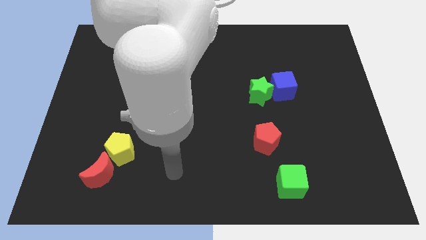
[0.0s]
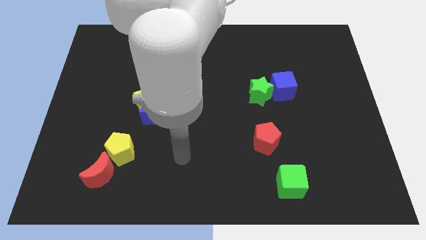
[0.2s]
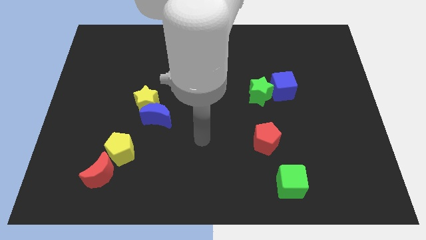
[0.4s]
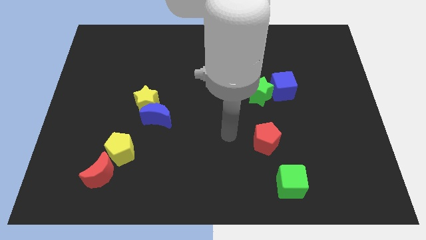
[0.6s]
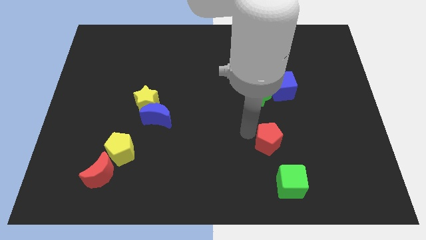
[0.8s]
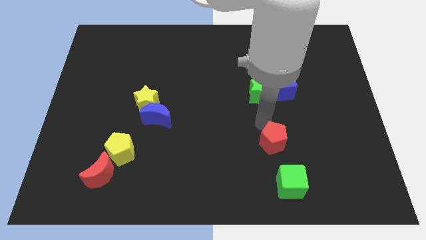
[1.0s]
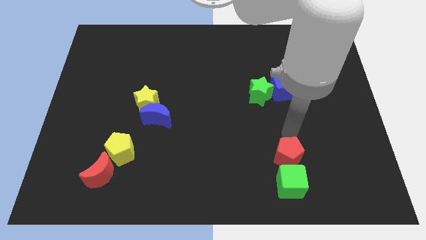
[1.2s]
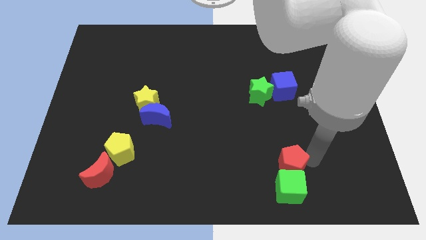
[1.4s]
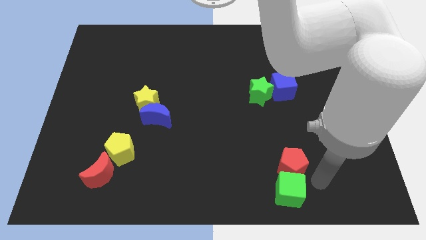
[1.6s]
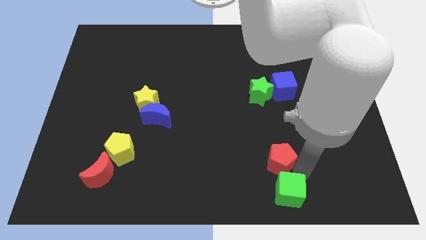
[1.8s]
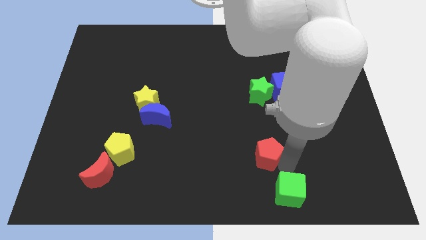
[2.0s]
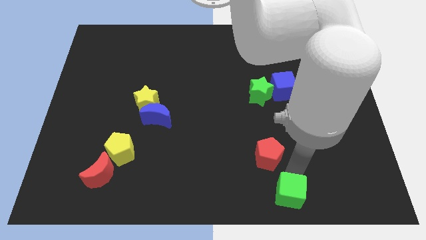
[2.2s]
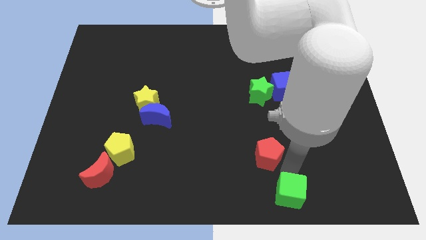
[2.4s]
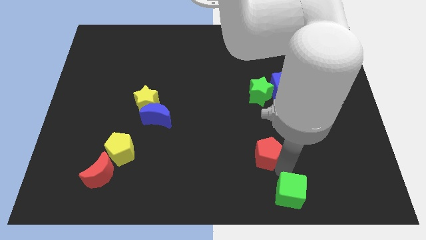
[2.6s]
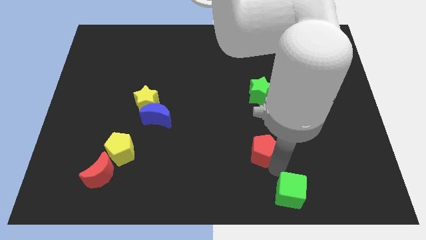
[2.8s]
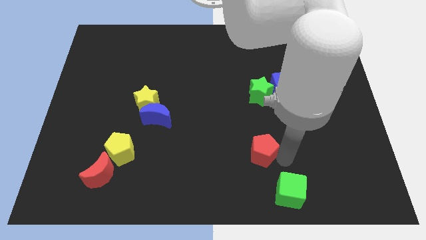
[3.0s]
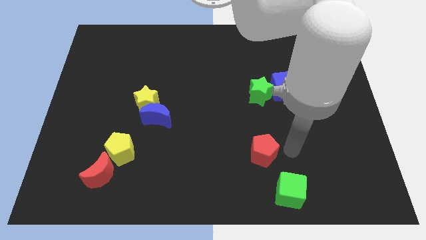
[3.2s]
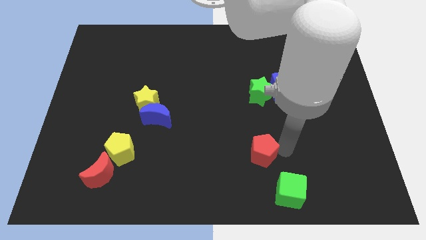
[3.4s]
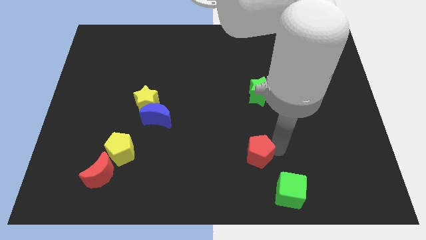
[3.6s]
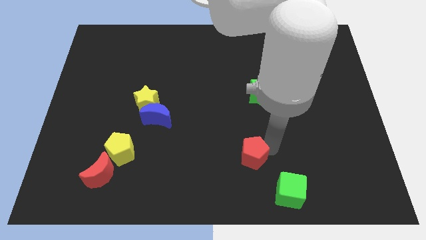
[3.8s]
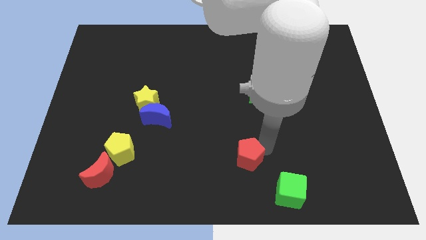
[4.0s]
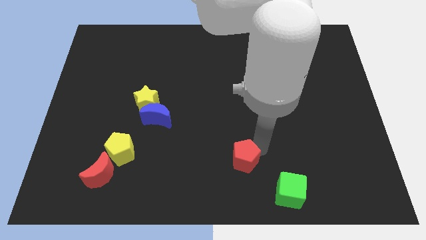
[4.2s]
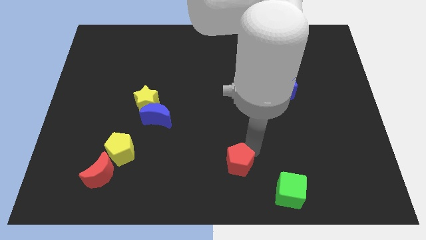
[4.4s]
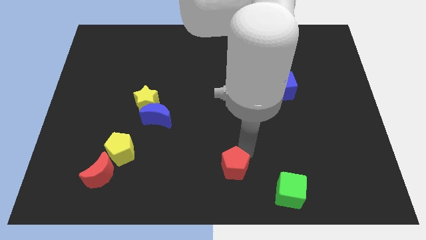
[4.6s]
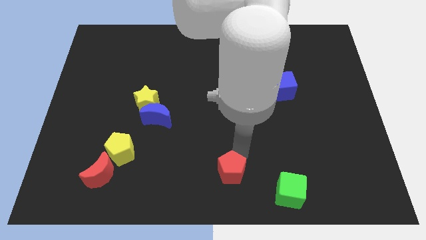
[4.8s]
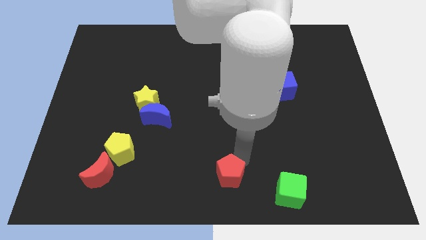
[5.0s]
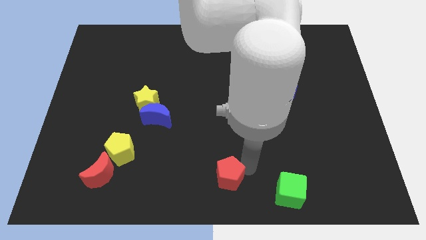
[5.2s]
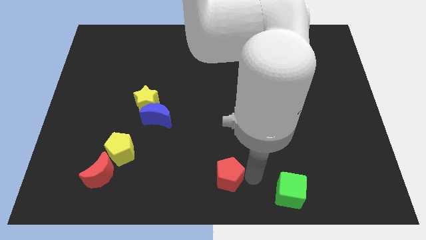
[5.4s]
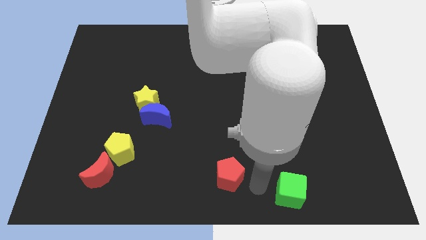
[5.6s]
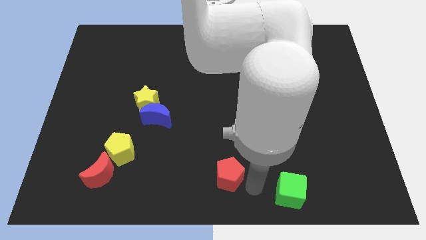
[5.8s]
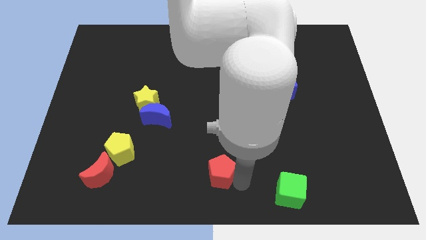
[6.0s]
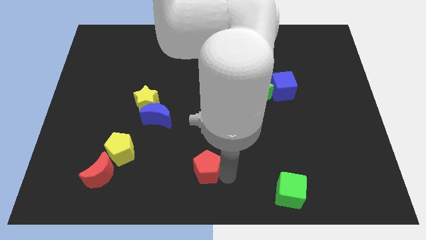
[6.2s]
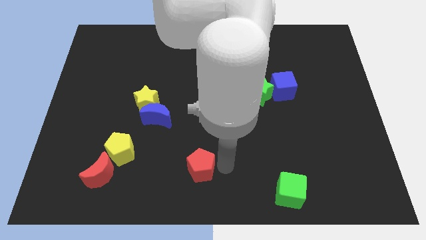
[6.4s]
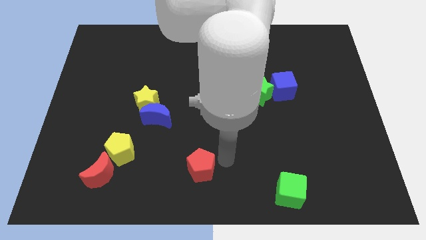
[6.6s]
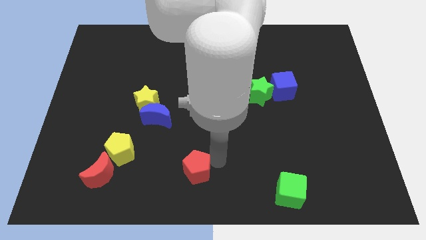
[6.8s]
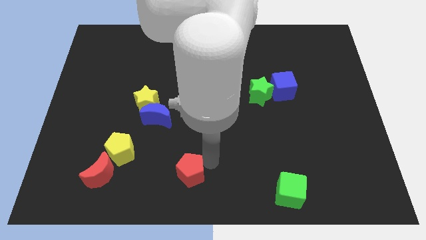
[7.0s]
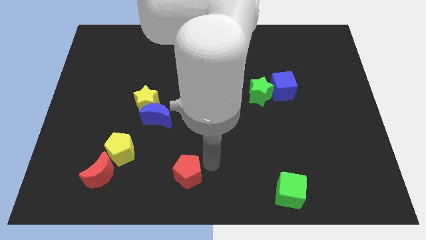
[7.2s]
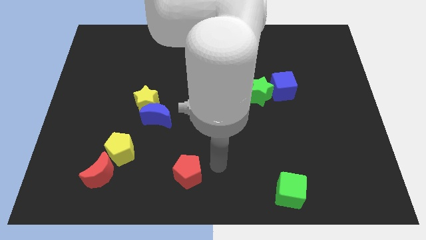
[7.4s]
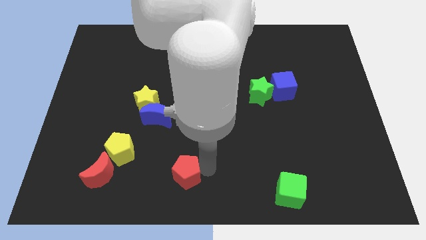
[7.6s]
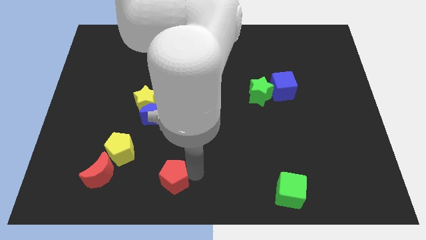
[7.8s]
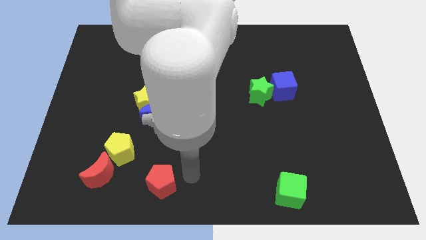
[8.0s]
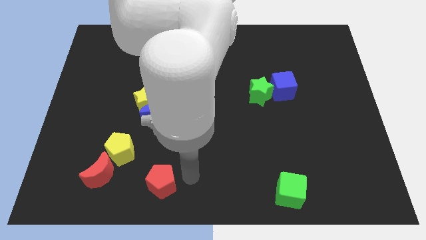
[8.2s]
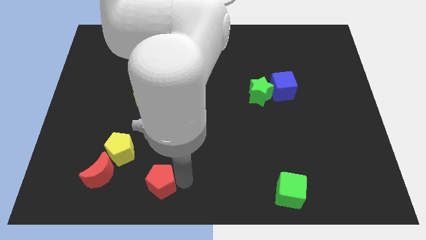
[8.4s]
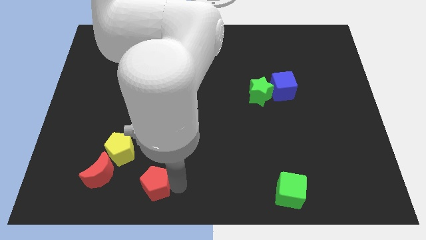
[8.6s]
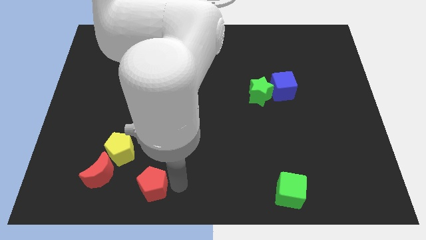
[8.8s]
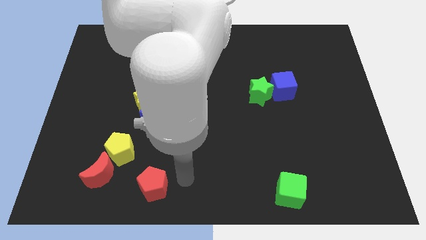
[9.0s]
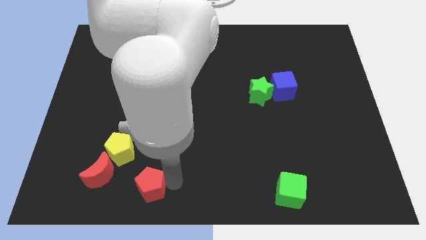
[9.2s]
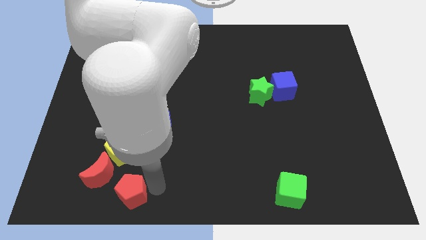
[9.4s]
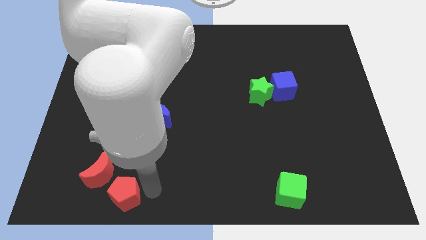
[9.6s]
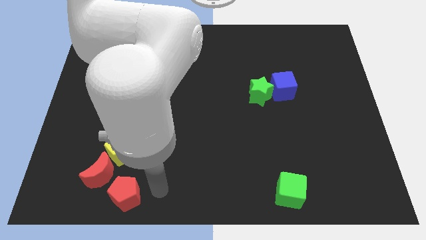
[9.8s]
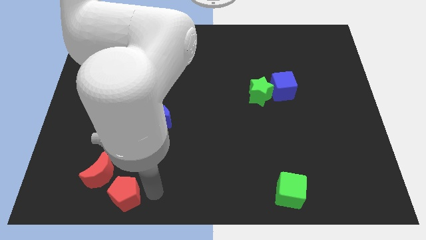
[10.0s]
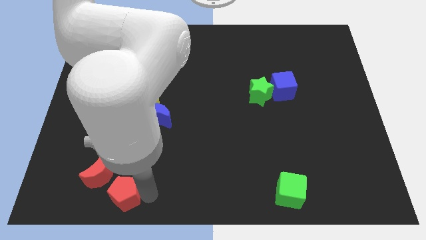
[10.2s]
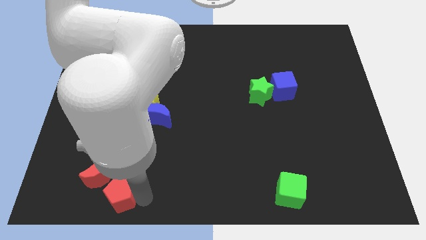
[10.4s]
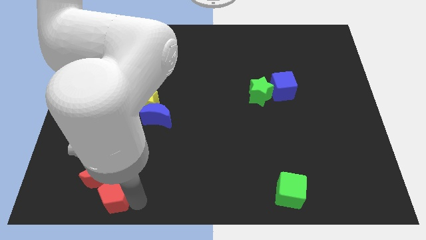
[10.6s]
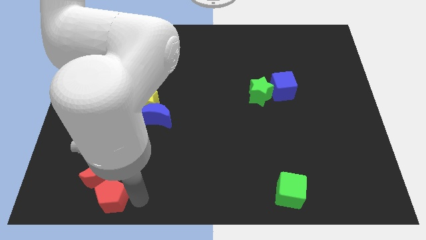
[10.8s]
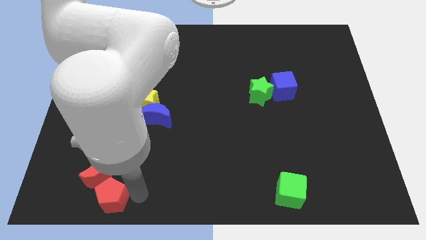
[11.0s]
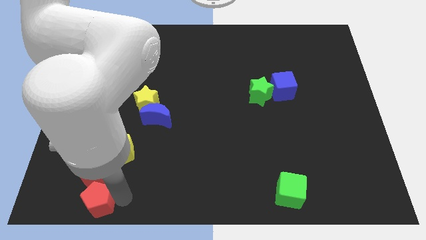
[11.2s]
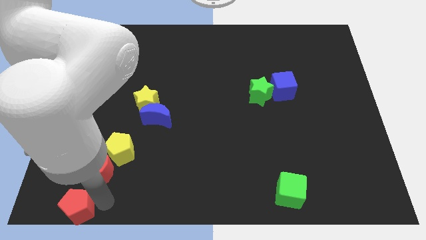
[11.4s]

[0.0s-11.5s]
push the red pentagon to the lower left corner

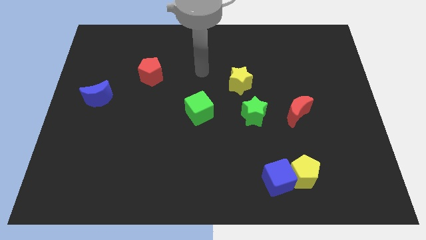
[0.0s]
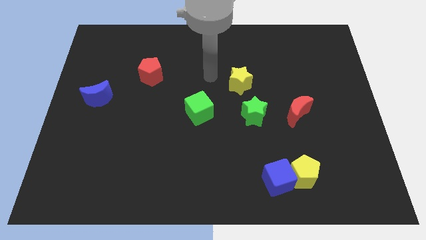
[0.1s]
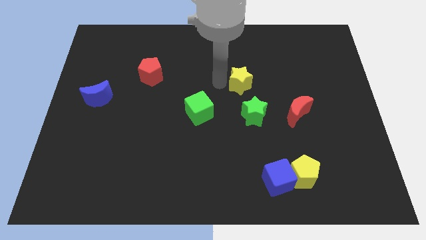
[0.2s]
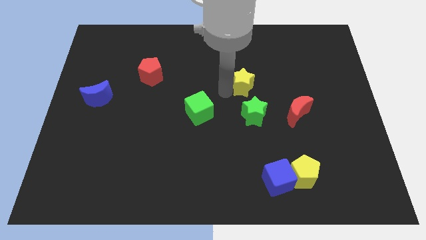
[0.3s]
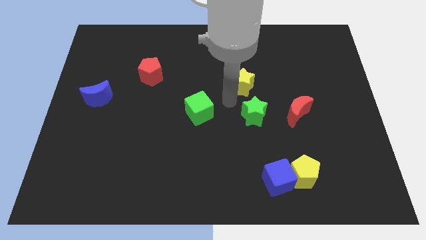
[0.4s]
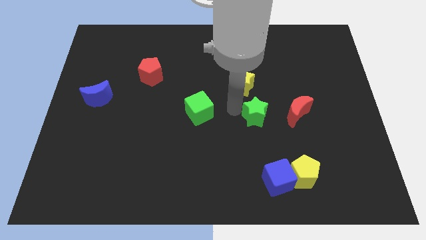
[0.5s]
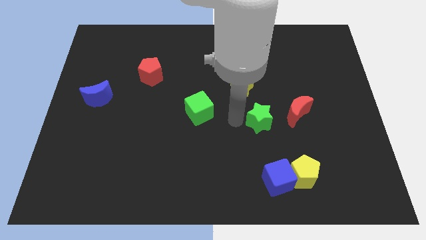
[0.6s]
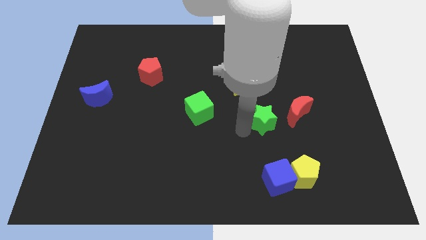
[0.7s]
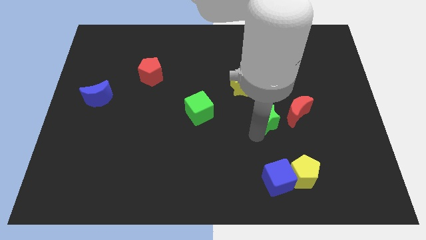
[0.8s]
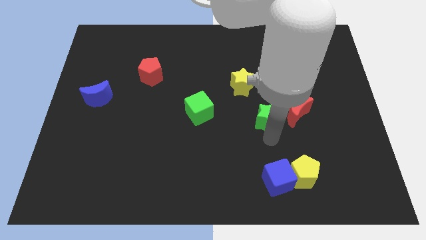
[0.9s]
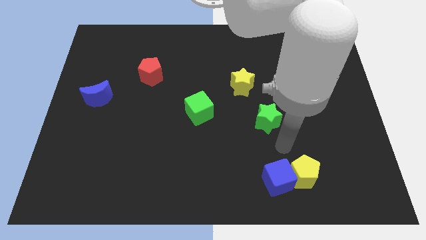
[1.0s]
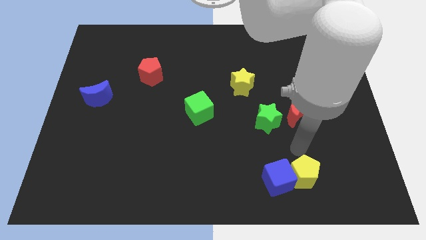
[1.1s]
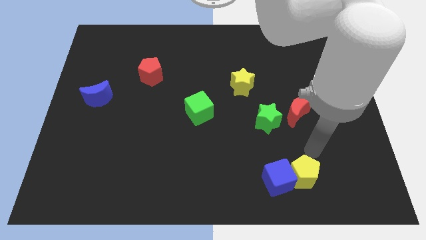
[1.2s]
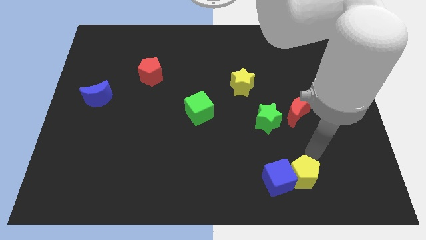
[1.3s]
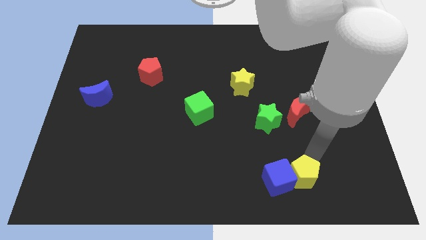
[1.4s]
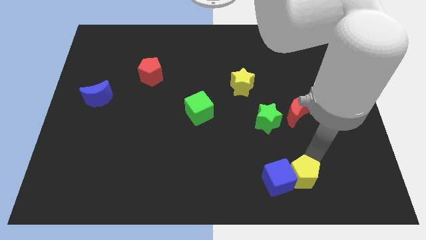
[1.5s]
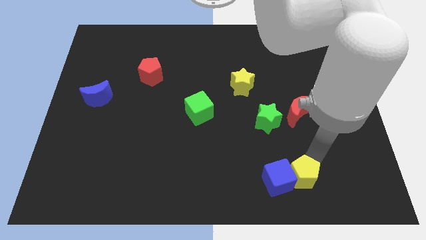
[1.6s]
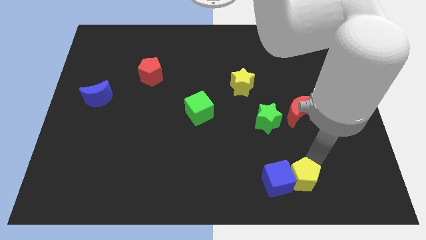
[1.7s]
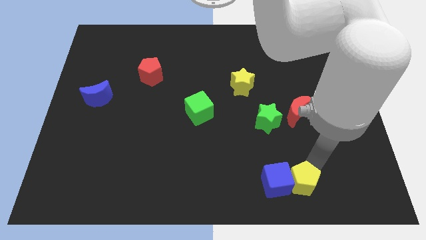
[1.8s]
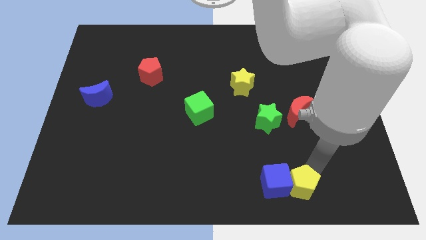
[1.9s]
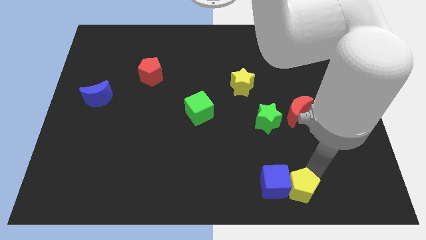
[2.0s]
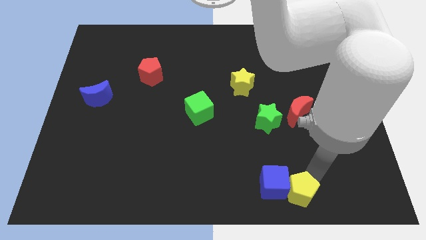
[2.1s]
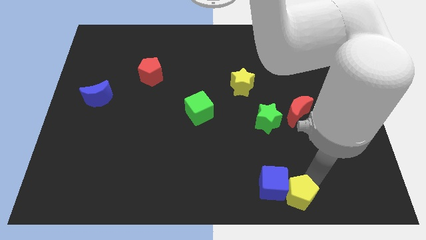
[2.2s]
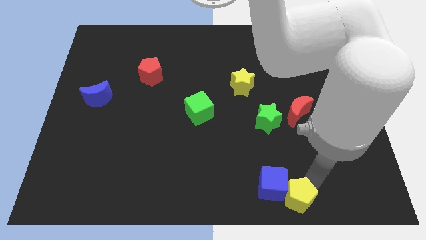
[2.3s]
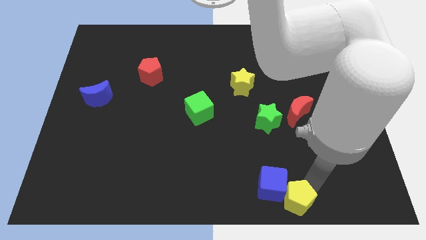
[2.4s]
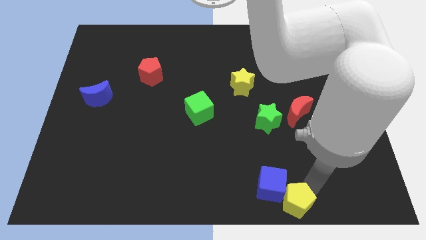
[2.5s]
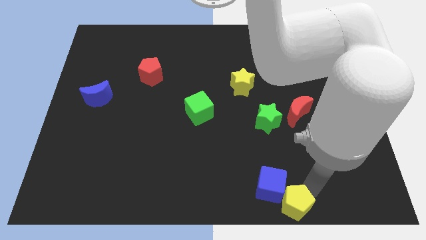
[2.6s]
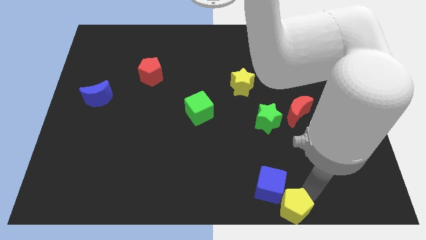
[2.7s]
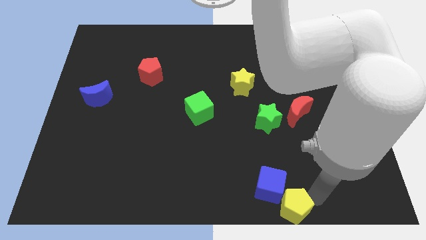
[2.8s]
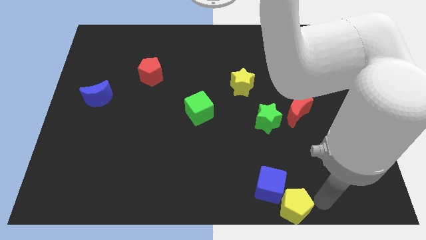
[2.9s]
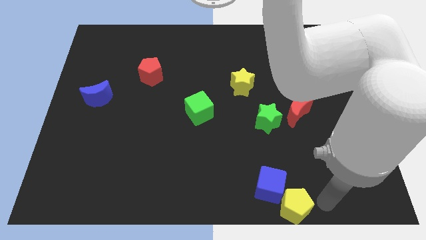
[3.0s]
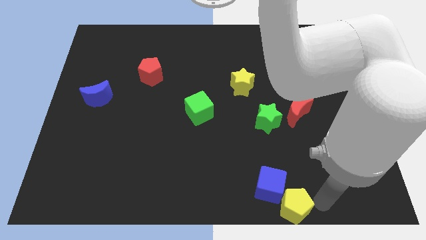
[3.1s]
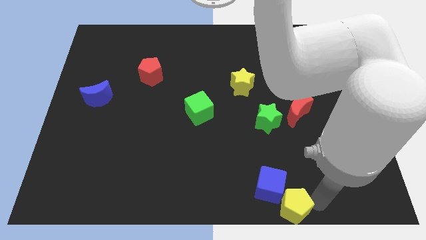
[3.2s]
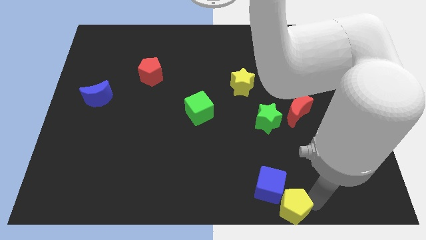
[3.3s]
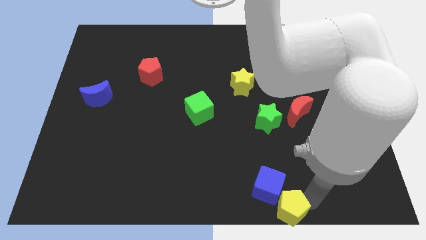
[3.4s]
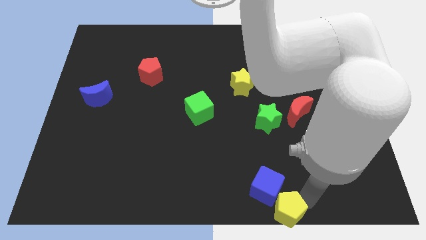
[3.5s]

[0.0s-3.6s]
push the yellow pentagon to the bottom side
